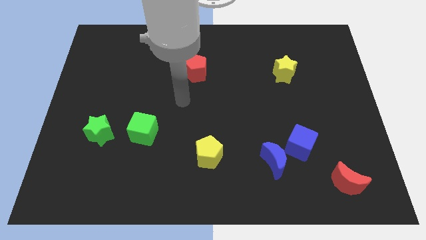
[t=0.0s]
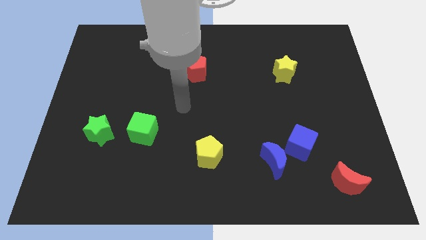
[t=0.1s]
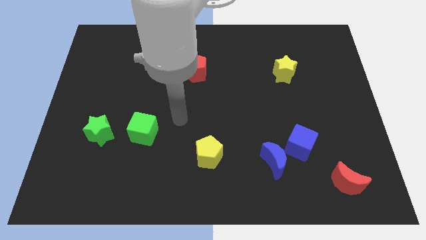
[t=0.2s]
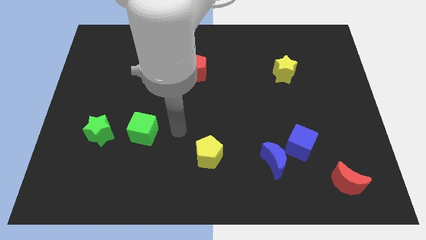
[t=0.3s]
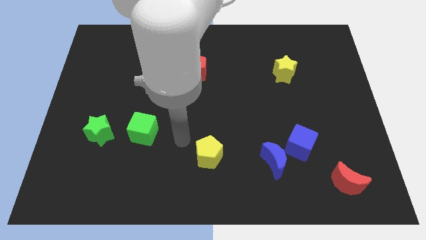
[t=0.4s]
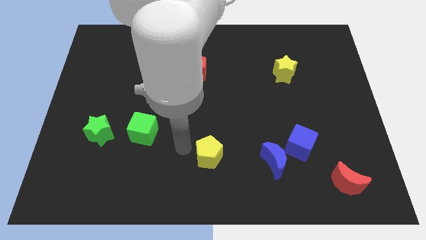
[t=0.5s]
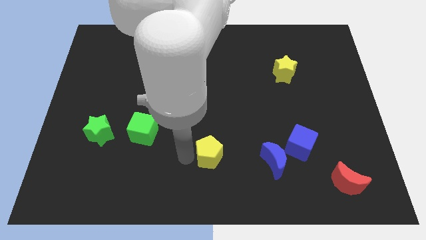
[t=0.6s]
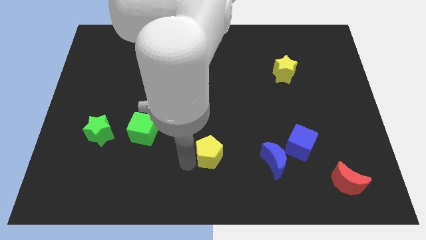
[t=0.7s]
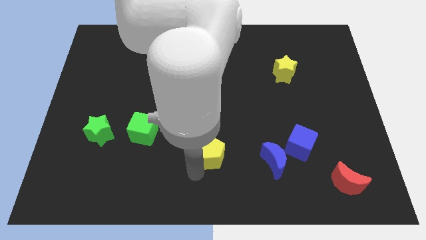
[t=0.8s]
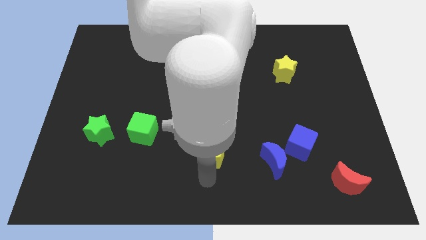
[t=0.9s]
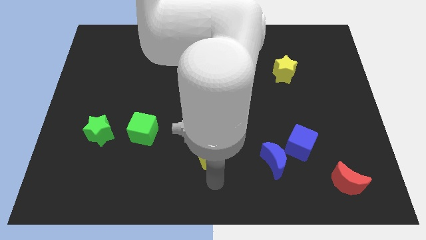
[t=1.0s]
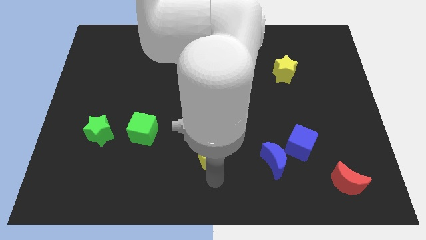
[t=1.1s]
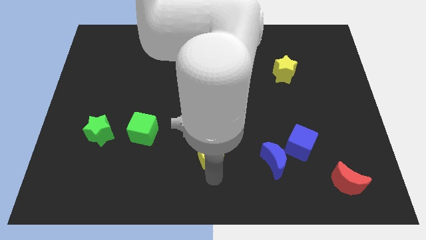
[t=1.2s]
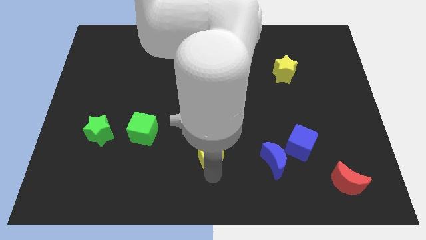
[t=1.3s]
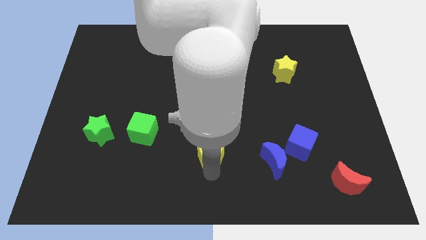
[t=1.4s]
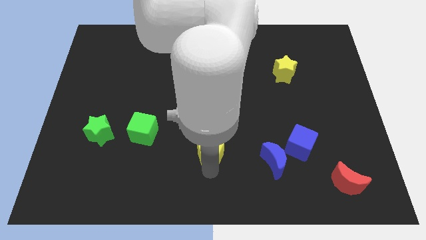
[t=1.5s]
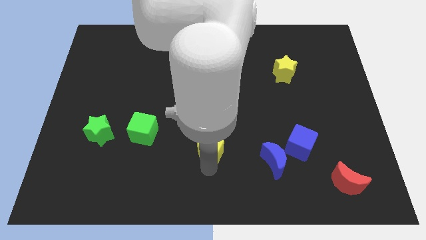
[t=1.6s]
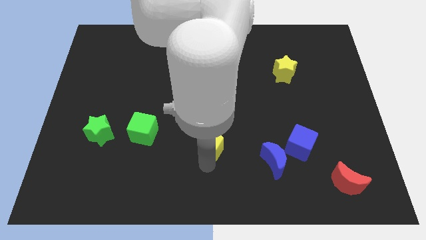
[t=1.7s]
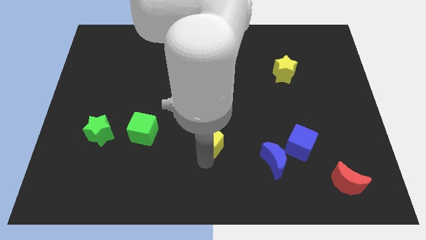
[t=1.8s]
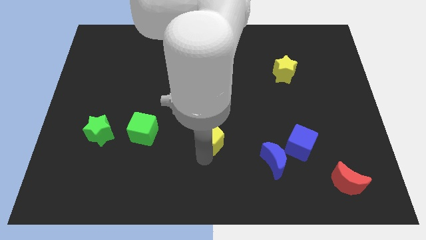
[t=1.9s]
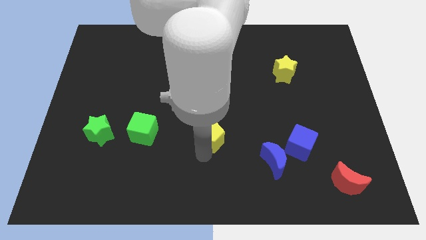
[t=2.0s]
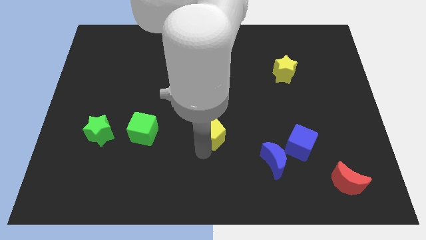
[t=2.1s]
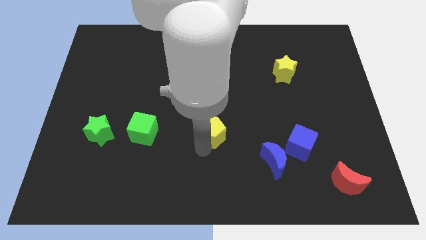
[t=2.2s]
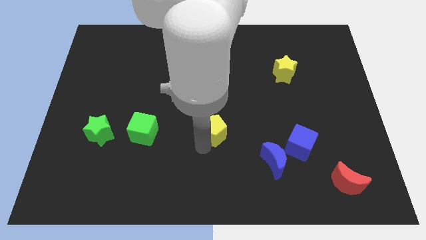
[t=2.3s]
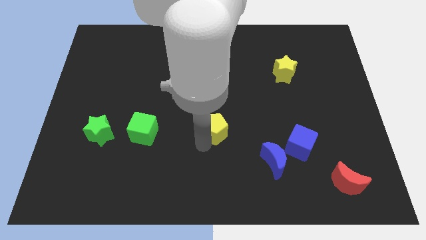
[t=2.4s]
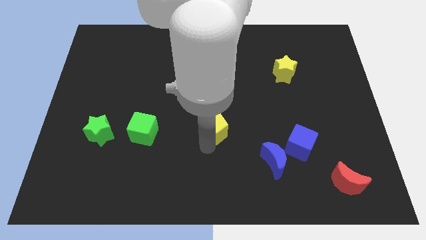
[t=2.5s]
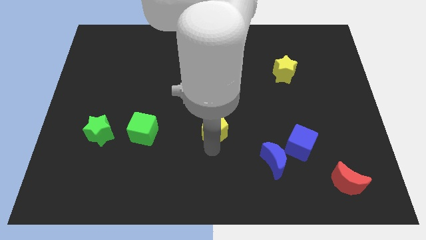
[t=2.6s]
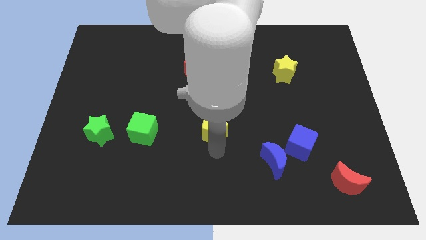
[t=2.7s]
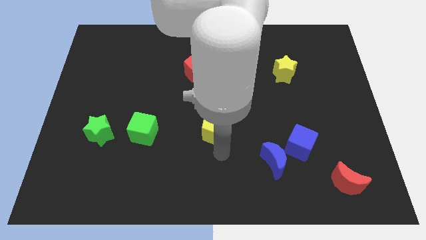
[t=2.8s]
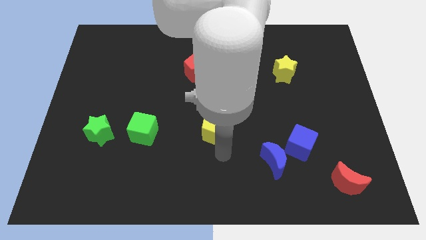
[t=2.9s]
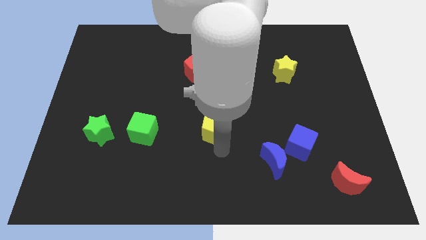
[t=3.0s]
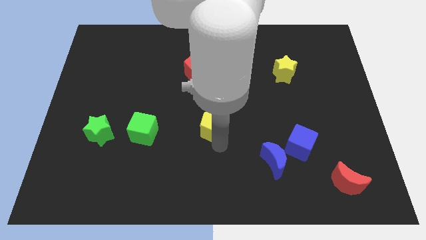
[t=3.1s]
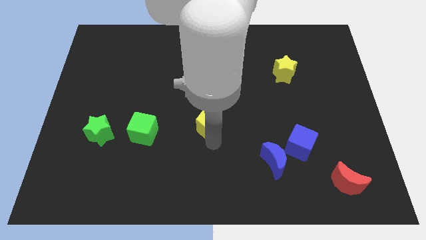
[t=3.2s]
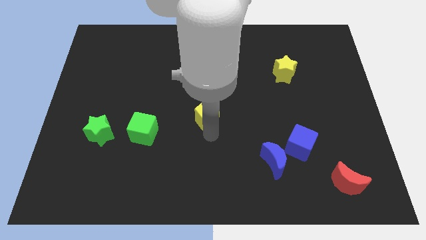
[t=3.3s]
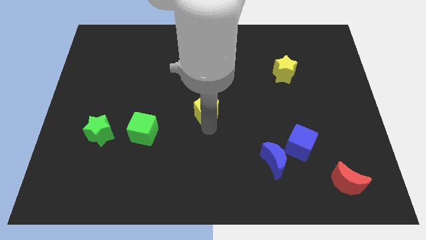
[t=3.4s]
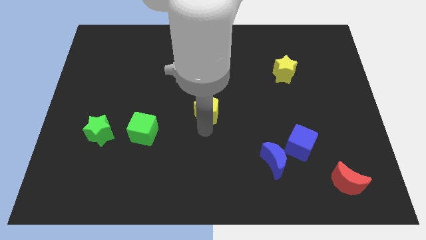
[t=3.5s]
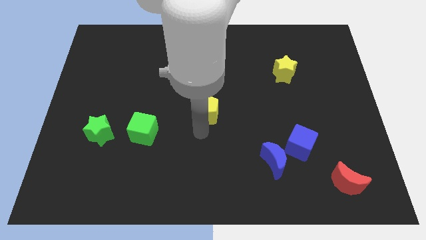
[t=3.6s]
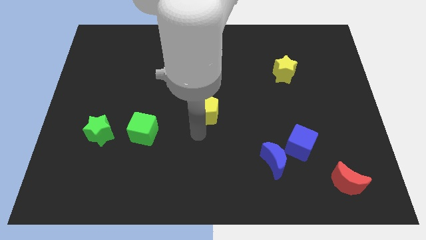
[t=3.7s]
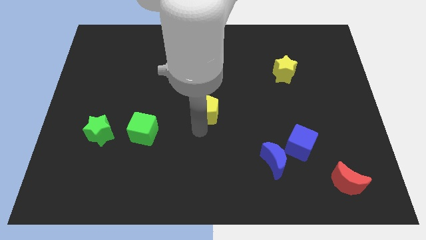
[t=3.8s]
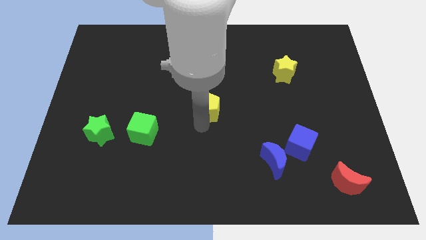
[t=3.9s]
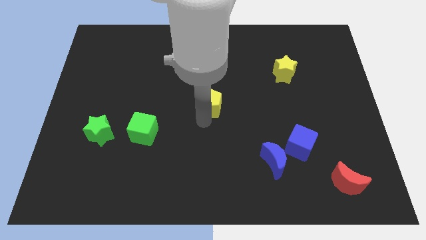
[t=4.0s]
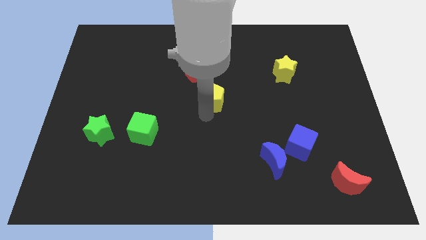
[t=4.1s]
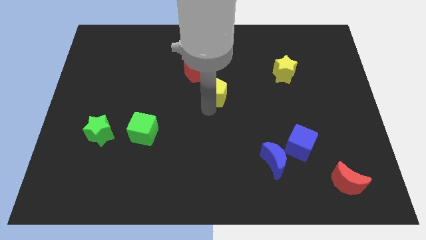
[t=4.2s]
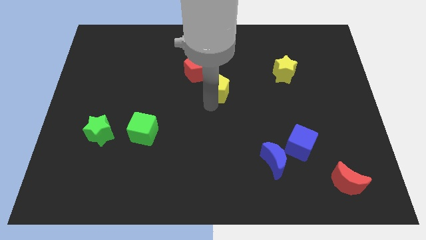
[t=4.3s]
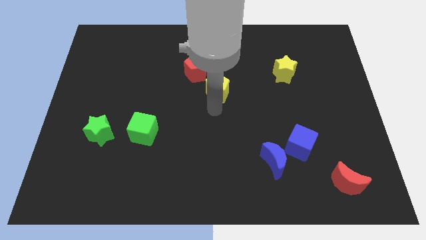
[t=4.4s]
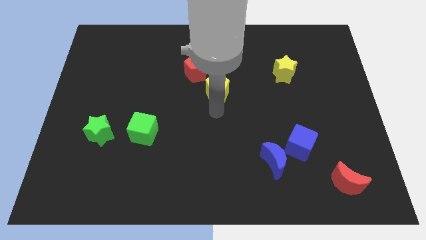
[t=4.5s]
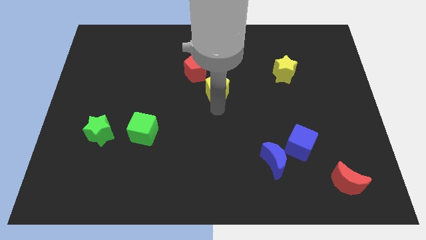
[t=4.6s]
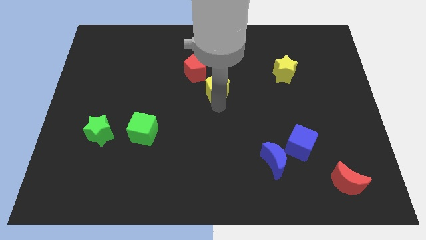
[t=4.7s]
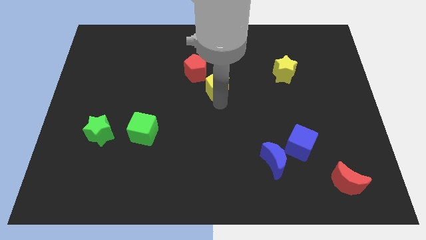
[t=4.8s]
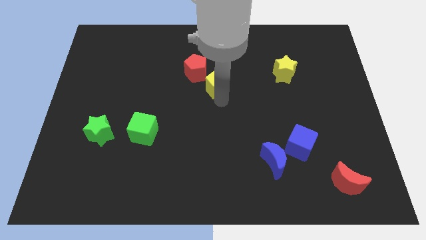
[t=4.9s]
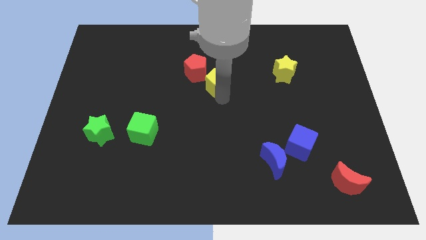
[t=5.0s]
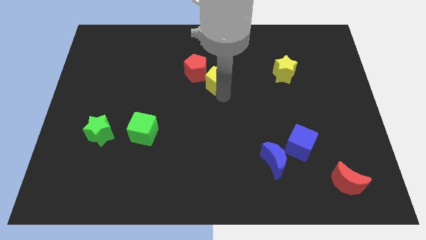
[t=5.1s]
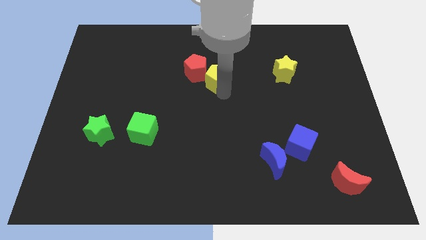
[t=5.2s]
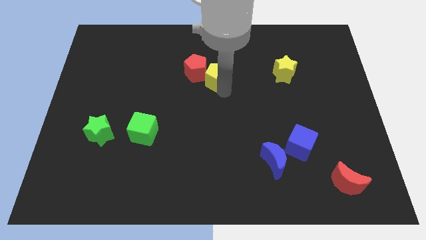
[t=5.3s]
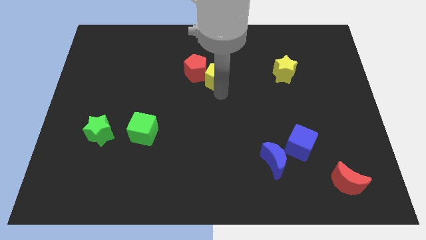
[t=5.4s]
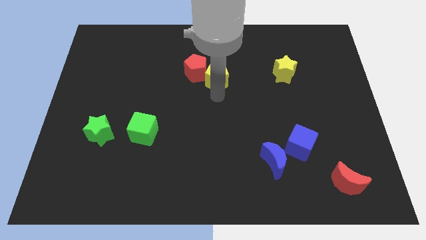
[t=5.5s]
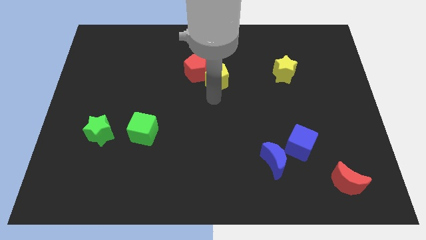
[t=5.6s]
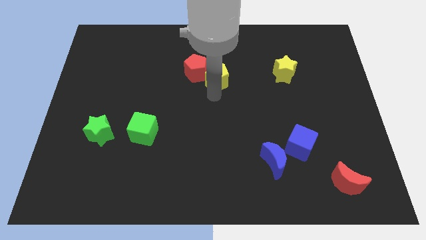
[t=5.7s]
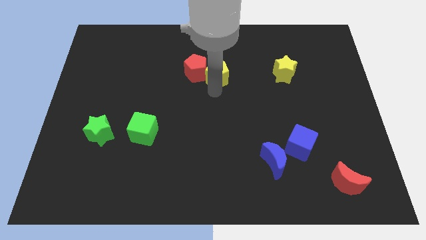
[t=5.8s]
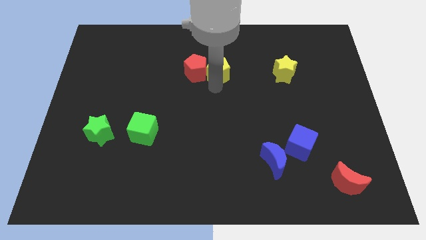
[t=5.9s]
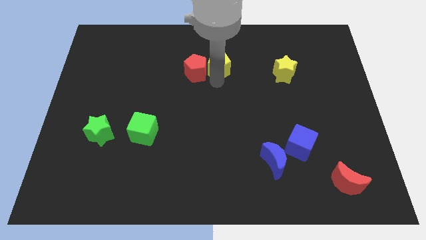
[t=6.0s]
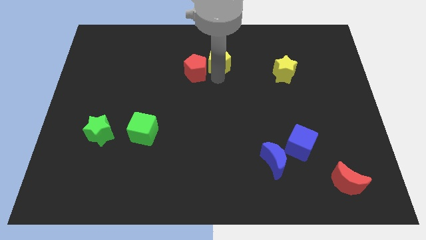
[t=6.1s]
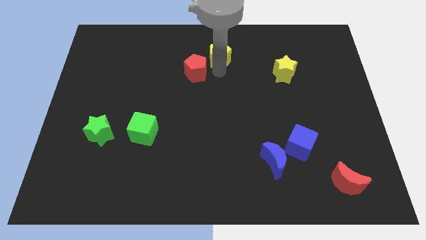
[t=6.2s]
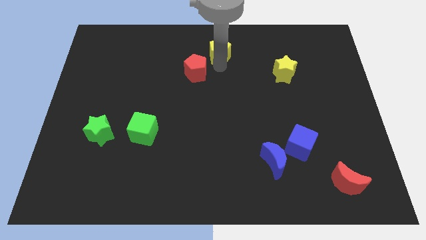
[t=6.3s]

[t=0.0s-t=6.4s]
slide the yellow pentagon to the top side

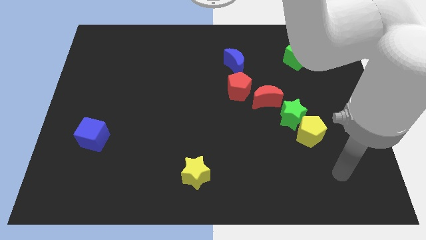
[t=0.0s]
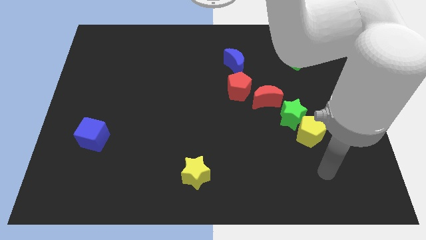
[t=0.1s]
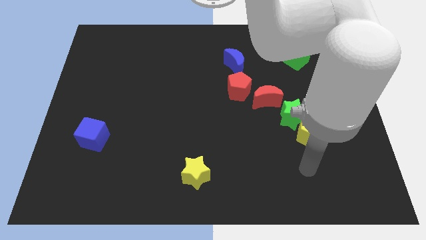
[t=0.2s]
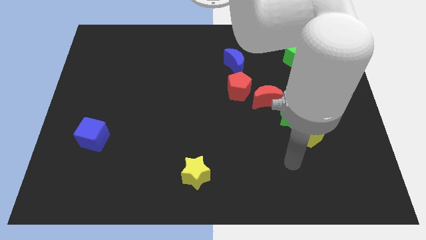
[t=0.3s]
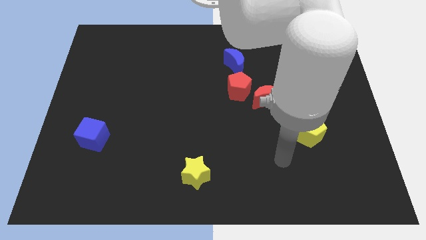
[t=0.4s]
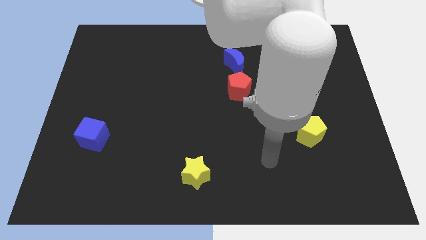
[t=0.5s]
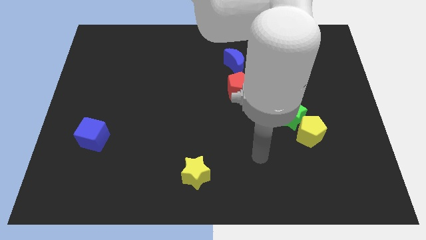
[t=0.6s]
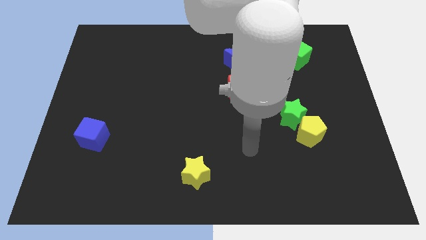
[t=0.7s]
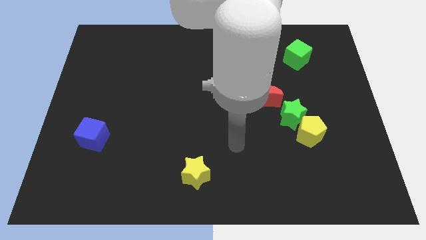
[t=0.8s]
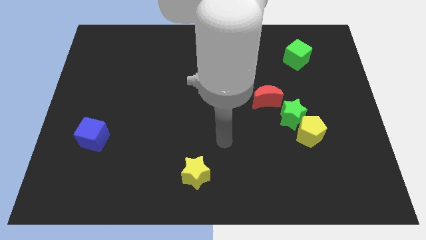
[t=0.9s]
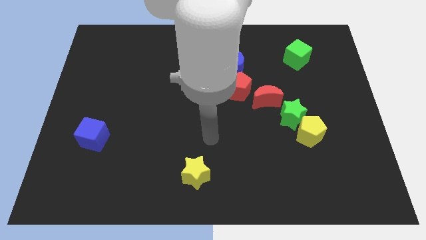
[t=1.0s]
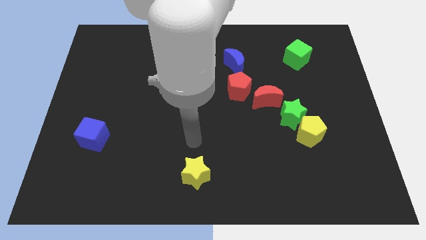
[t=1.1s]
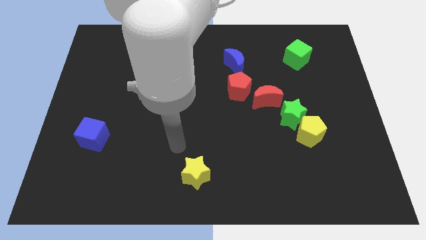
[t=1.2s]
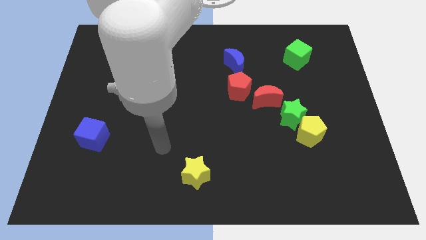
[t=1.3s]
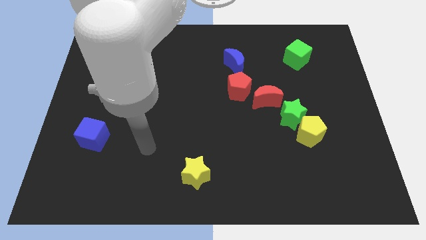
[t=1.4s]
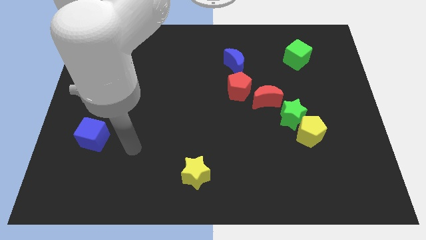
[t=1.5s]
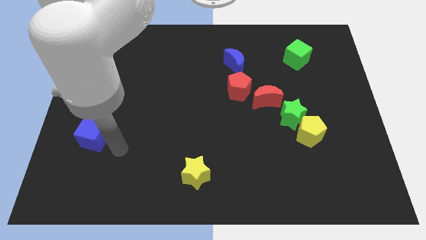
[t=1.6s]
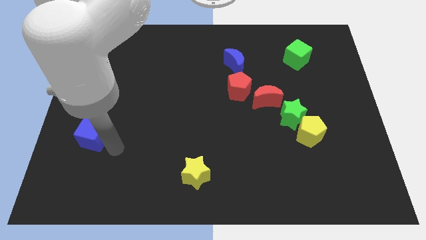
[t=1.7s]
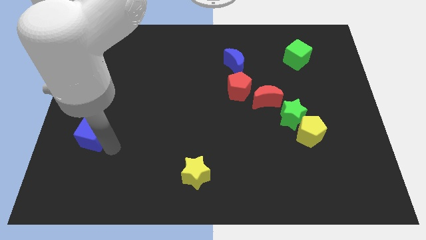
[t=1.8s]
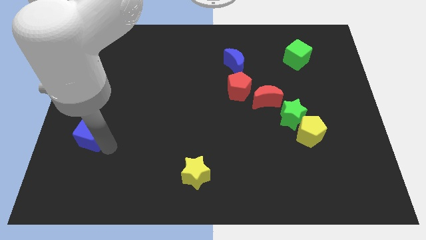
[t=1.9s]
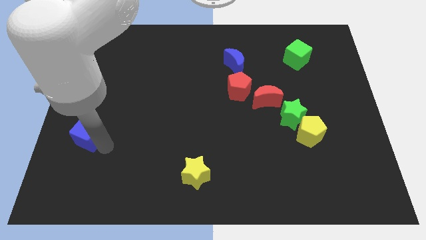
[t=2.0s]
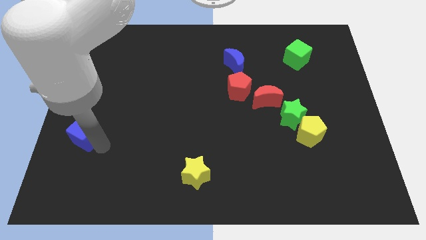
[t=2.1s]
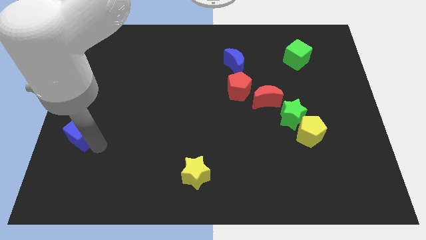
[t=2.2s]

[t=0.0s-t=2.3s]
slide the blue cube to the left side of the board
